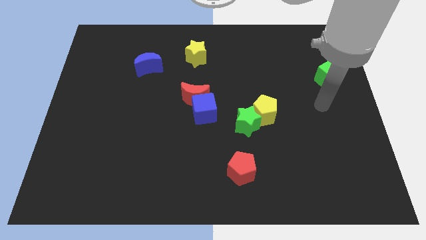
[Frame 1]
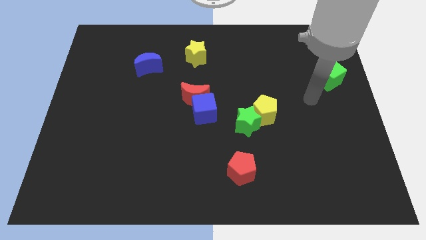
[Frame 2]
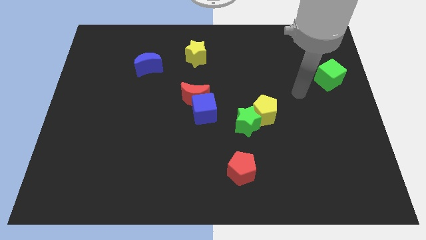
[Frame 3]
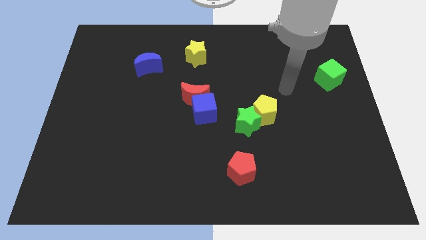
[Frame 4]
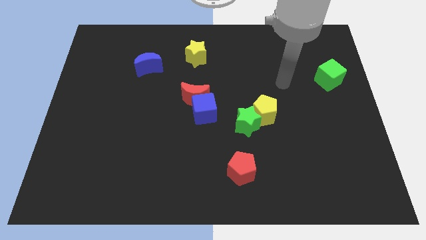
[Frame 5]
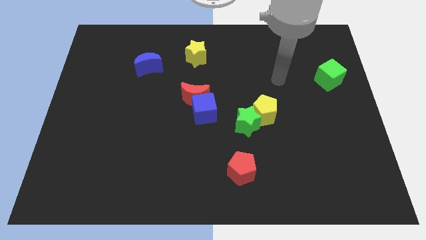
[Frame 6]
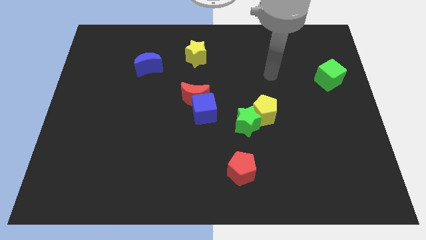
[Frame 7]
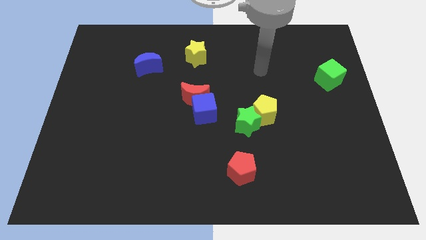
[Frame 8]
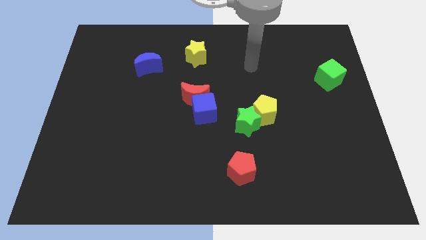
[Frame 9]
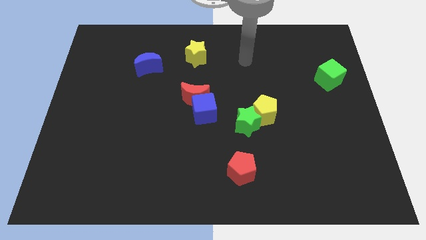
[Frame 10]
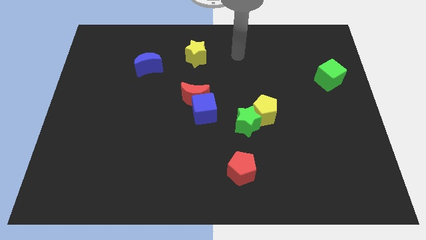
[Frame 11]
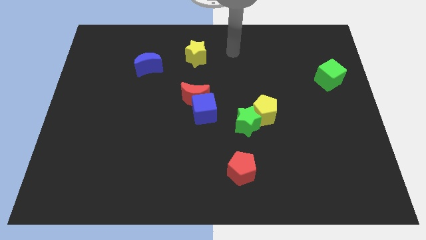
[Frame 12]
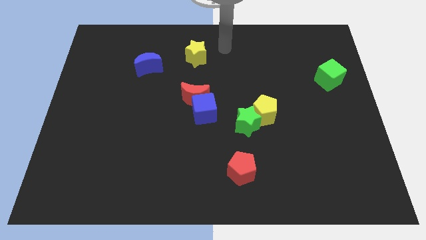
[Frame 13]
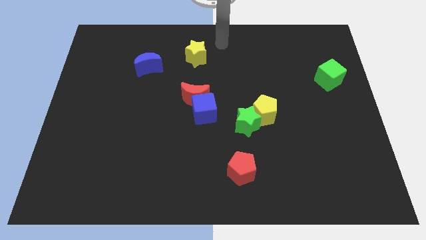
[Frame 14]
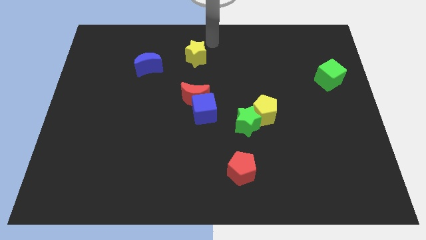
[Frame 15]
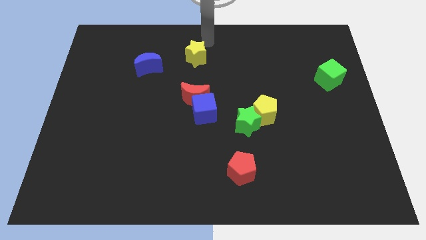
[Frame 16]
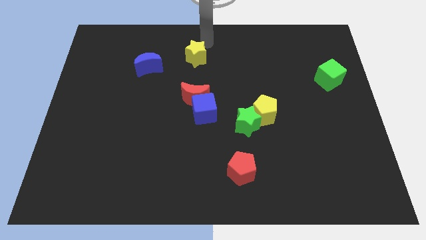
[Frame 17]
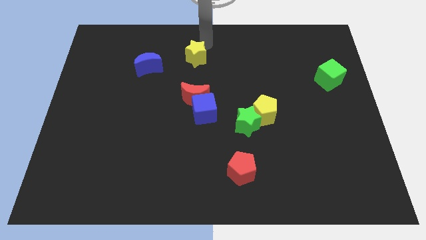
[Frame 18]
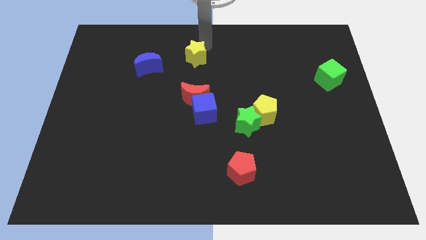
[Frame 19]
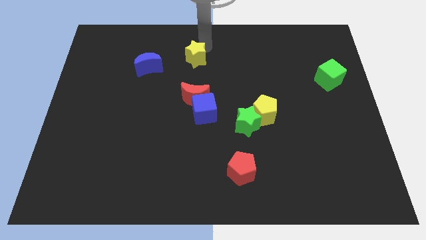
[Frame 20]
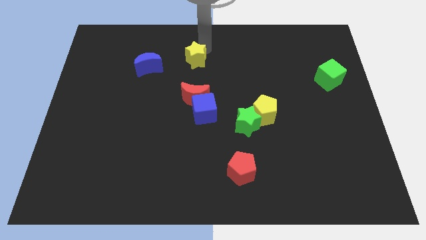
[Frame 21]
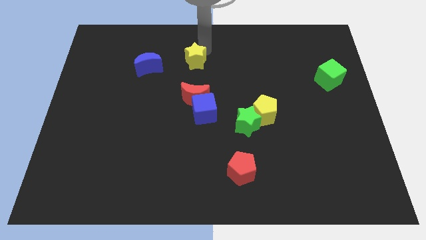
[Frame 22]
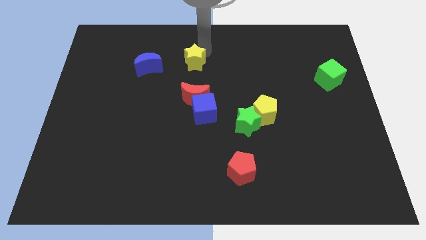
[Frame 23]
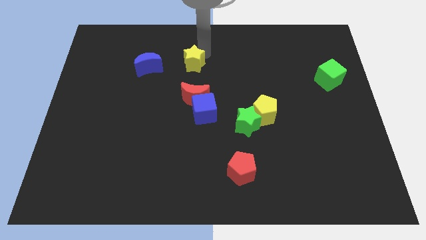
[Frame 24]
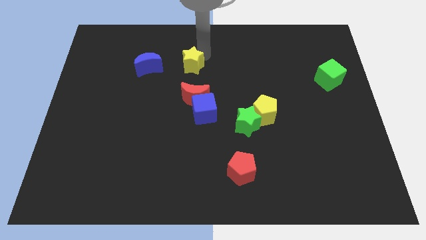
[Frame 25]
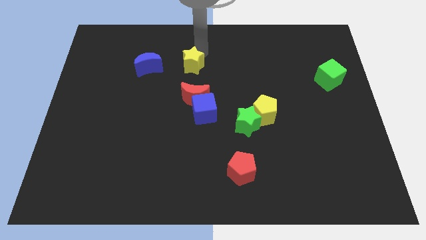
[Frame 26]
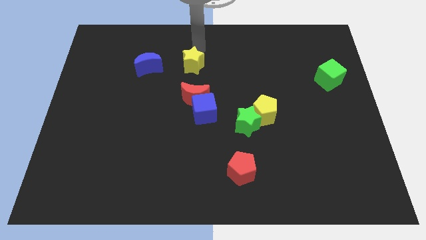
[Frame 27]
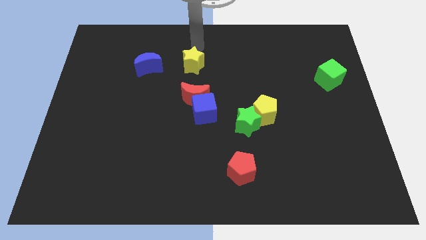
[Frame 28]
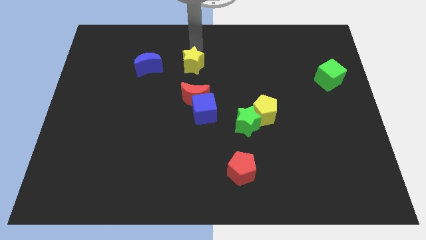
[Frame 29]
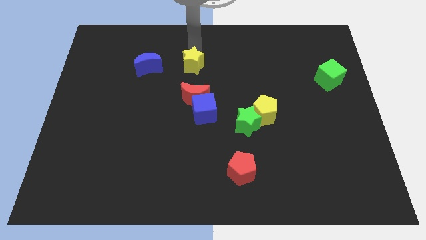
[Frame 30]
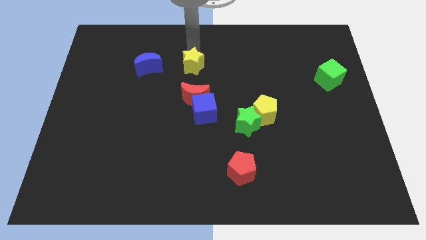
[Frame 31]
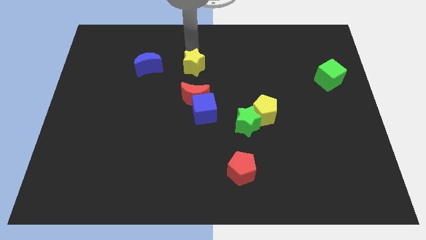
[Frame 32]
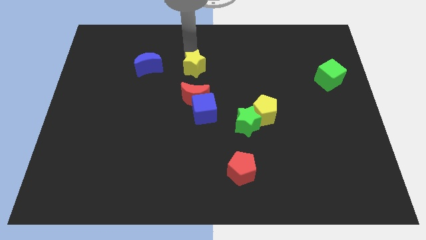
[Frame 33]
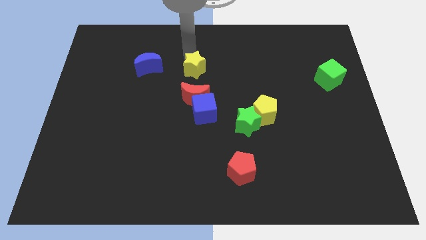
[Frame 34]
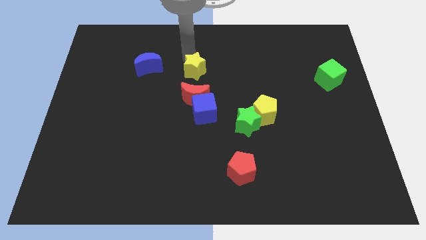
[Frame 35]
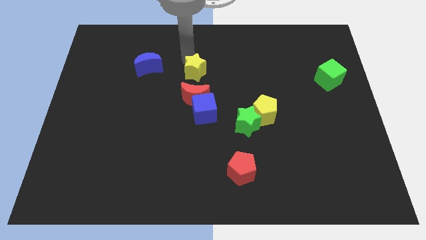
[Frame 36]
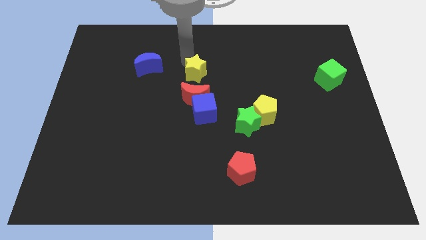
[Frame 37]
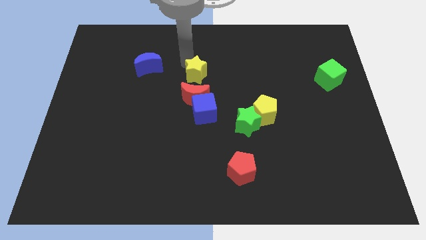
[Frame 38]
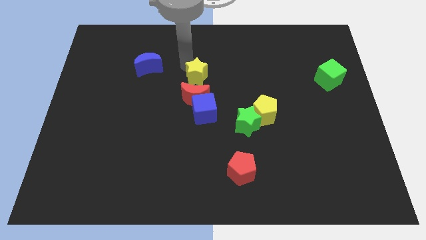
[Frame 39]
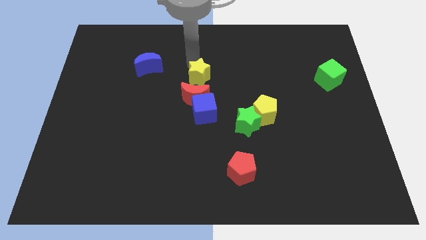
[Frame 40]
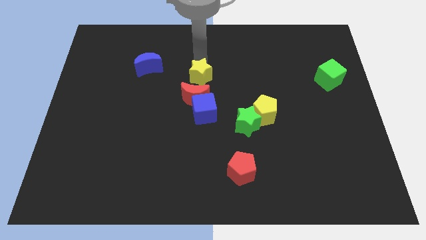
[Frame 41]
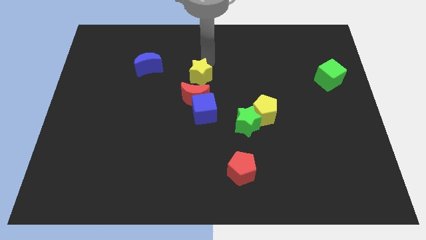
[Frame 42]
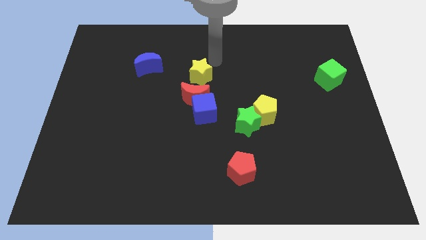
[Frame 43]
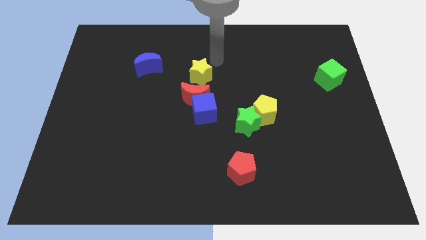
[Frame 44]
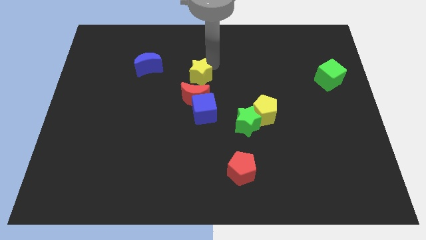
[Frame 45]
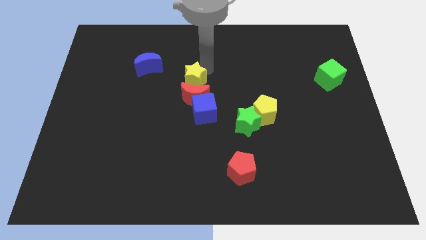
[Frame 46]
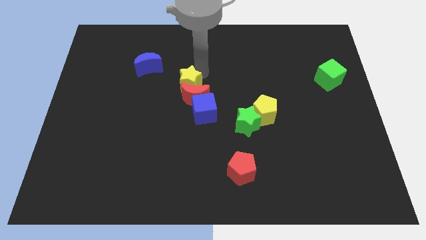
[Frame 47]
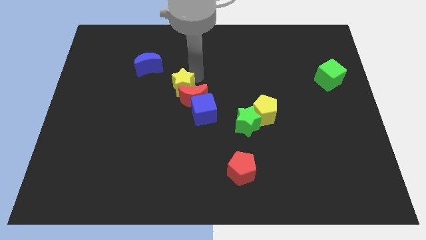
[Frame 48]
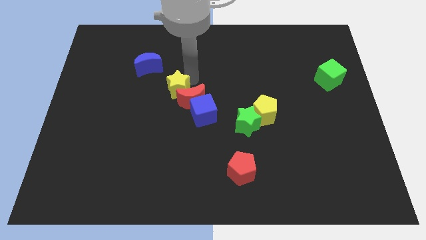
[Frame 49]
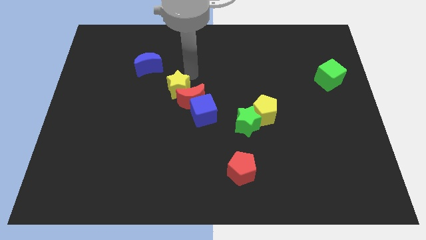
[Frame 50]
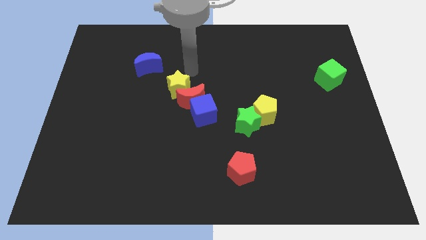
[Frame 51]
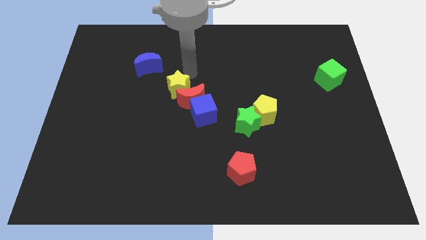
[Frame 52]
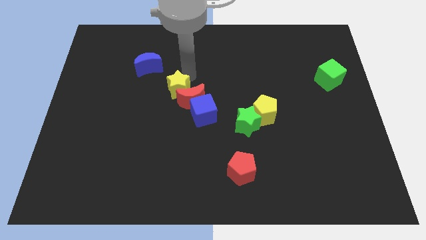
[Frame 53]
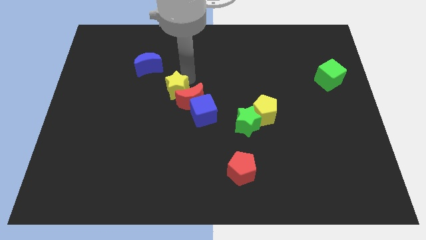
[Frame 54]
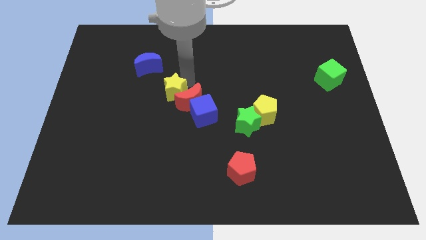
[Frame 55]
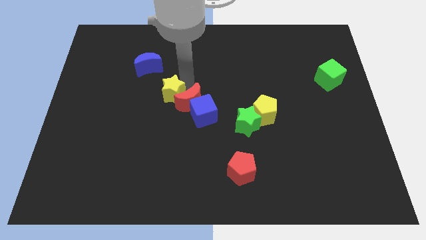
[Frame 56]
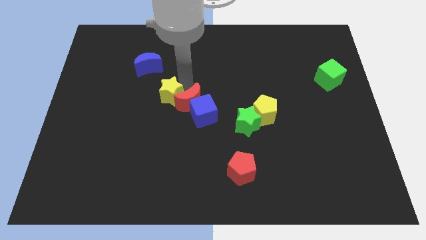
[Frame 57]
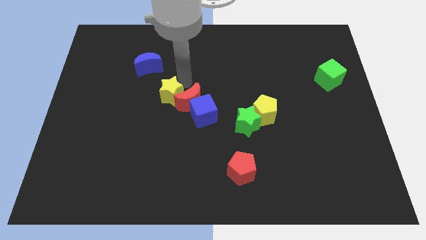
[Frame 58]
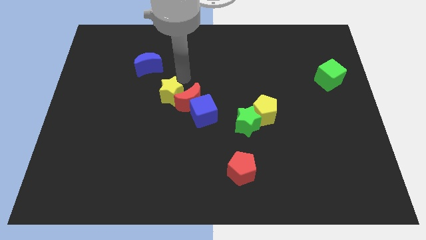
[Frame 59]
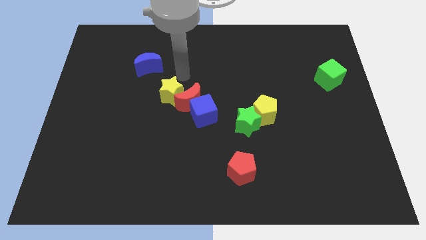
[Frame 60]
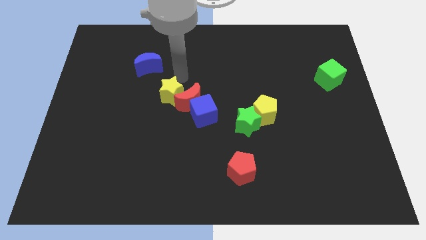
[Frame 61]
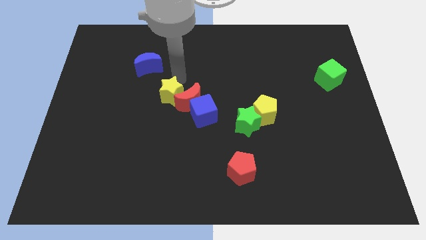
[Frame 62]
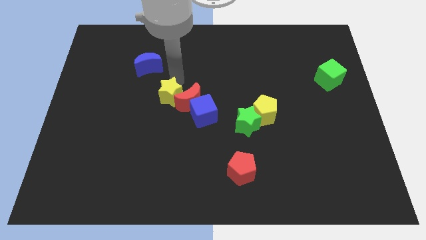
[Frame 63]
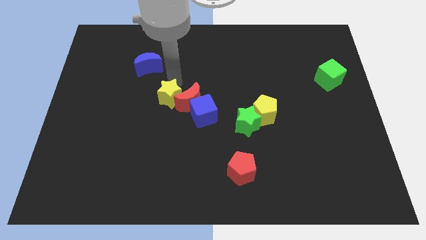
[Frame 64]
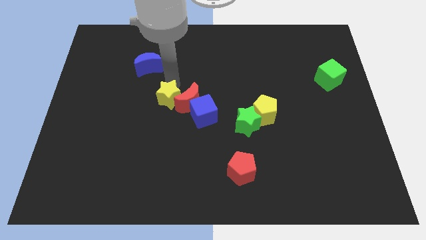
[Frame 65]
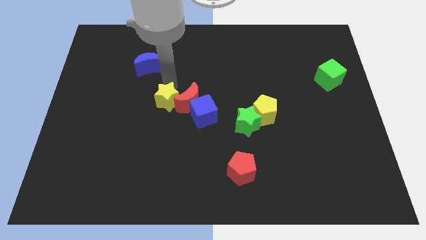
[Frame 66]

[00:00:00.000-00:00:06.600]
push the yellow star left of the blue cube

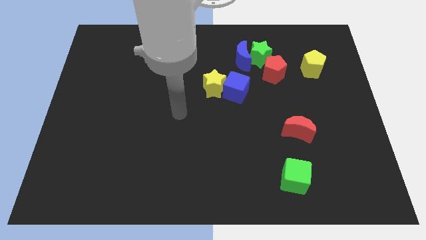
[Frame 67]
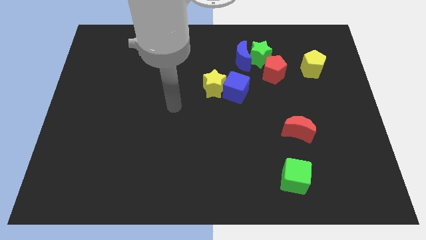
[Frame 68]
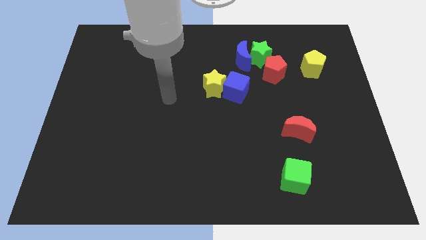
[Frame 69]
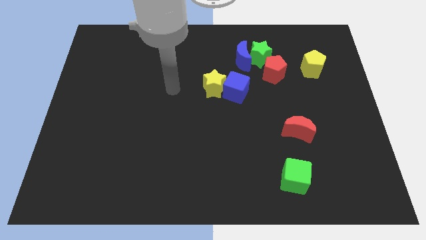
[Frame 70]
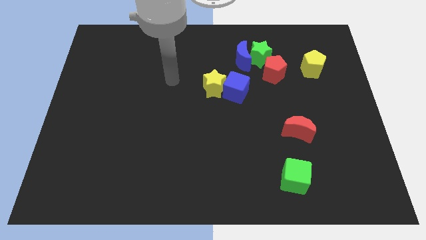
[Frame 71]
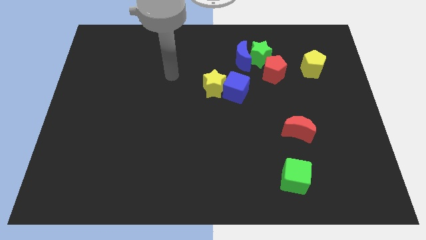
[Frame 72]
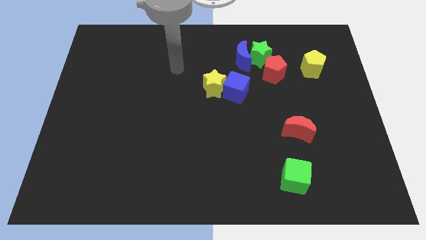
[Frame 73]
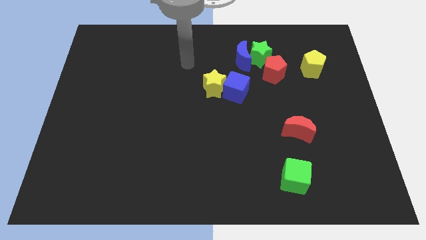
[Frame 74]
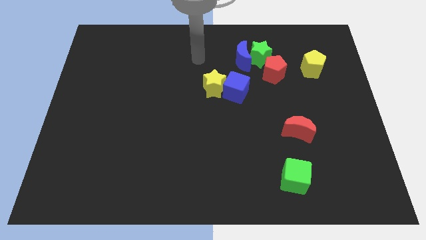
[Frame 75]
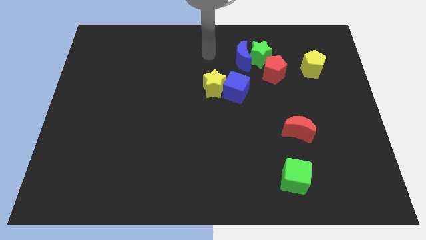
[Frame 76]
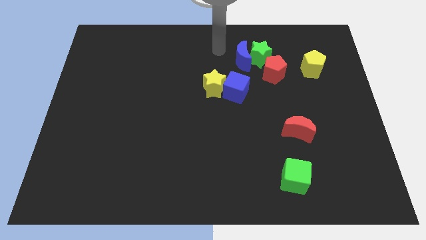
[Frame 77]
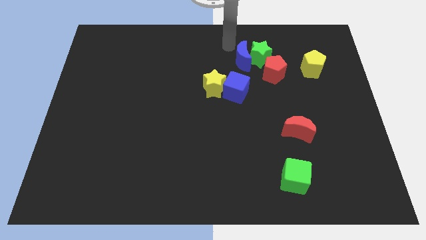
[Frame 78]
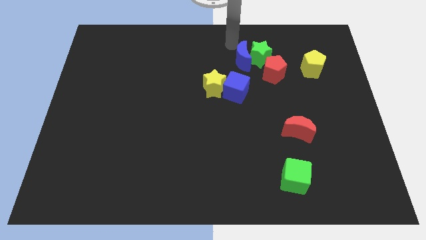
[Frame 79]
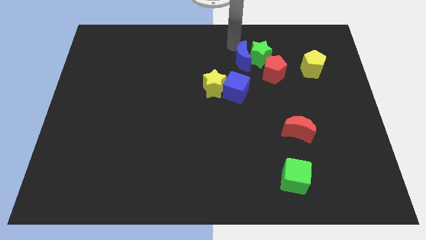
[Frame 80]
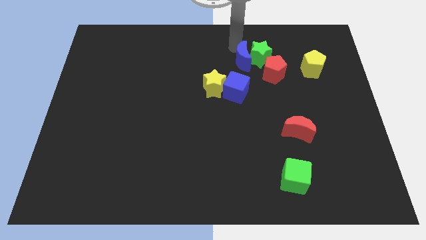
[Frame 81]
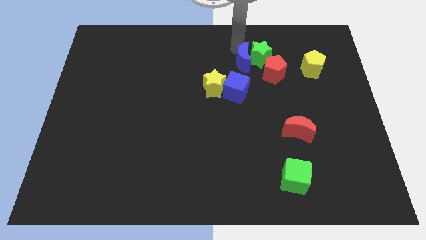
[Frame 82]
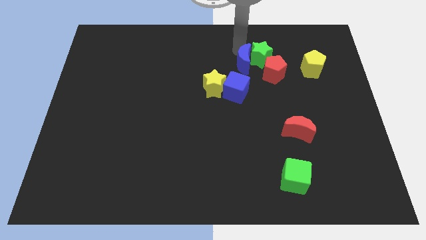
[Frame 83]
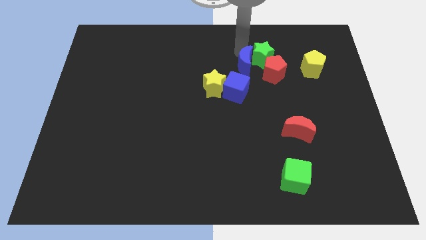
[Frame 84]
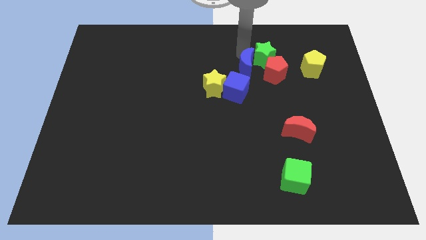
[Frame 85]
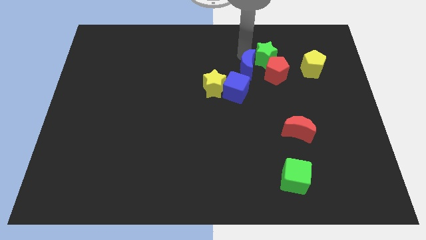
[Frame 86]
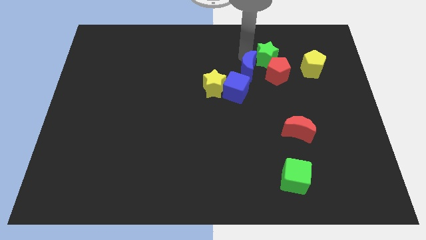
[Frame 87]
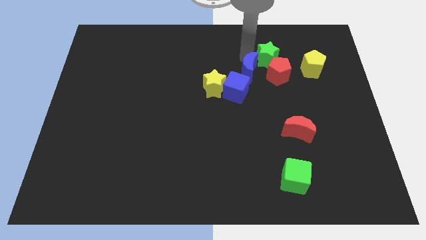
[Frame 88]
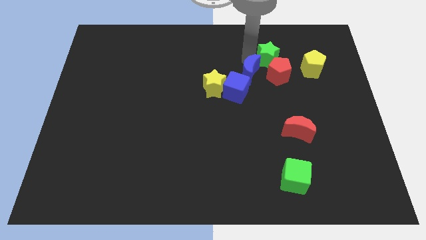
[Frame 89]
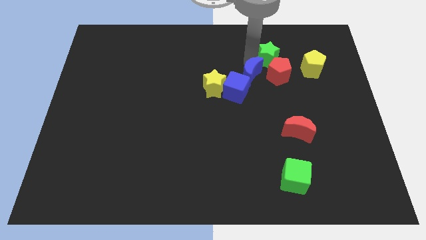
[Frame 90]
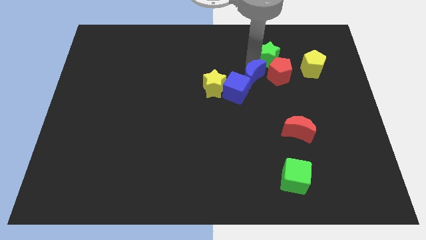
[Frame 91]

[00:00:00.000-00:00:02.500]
put the blue moon to the right of the blue cube
